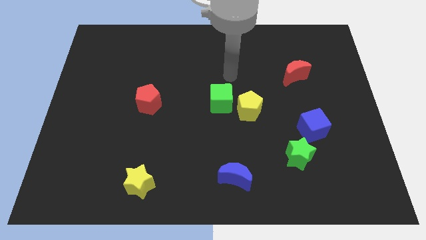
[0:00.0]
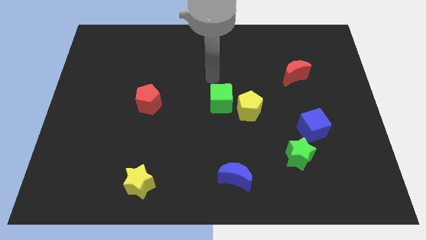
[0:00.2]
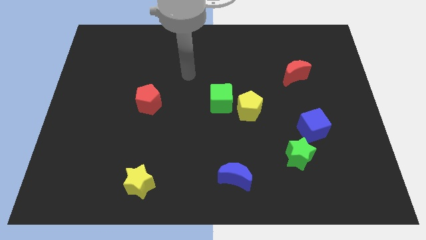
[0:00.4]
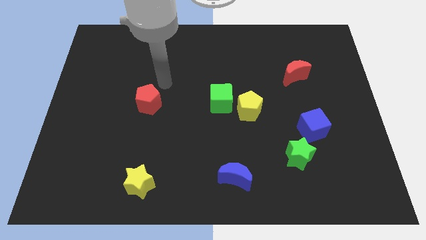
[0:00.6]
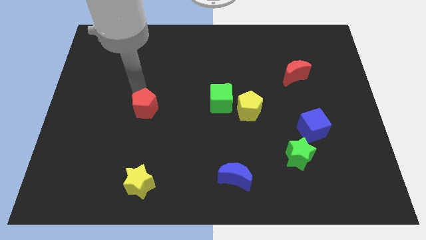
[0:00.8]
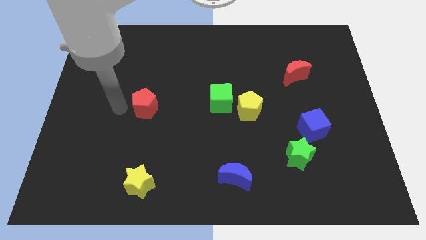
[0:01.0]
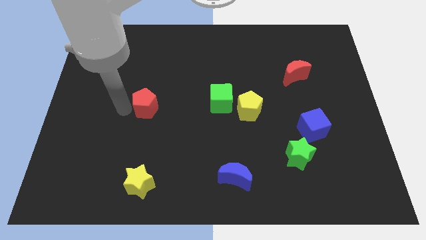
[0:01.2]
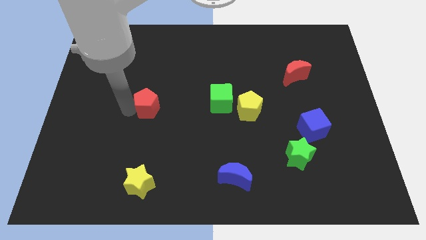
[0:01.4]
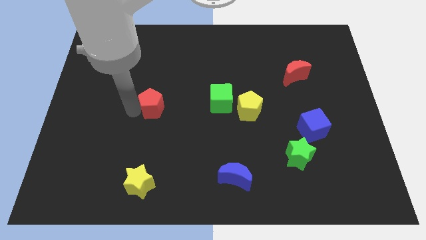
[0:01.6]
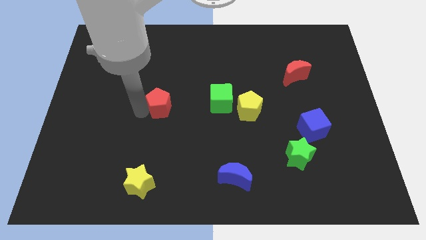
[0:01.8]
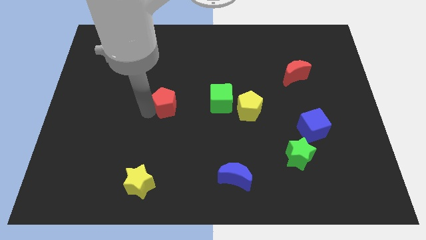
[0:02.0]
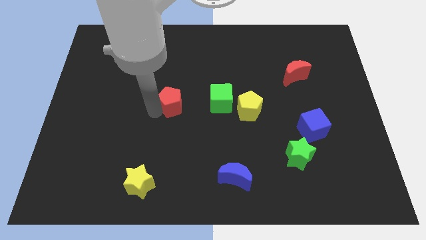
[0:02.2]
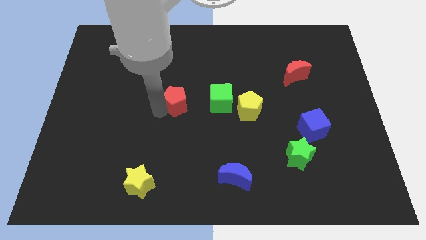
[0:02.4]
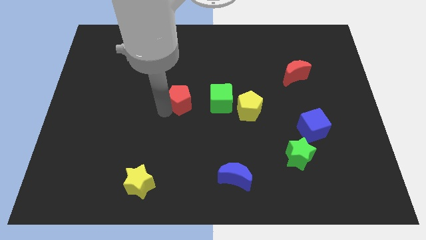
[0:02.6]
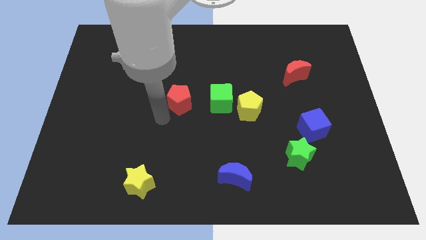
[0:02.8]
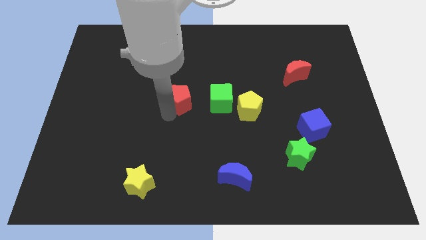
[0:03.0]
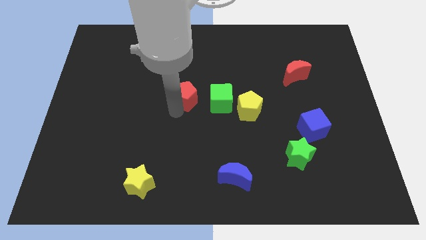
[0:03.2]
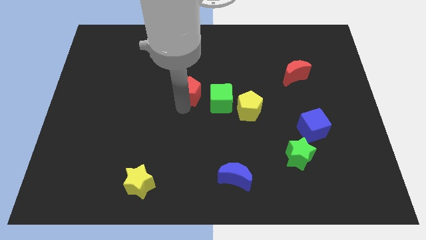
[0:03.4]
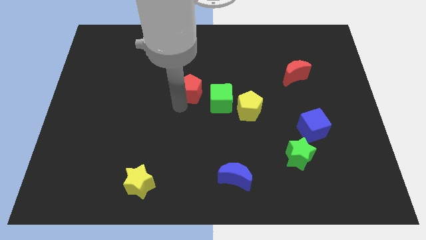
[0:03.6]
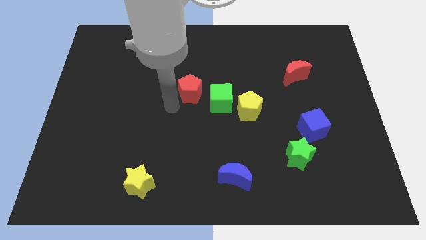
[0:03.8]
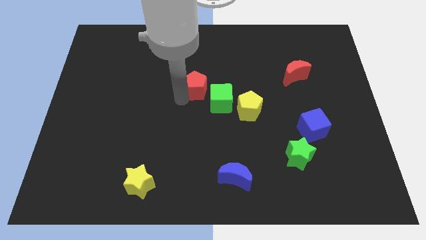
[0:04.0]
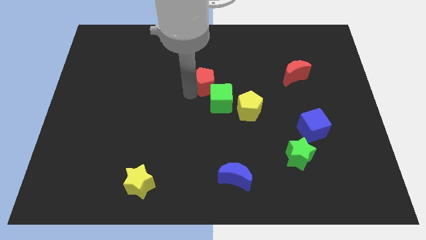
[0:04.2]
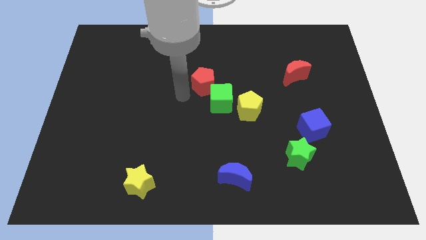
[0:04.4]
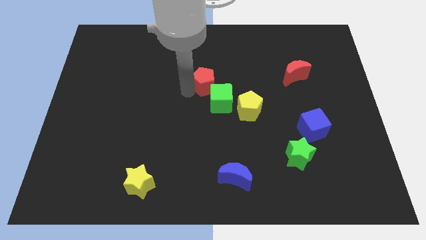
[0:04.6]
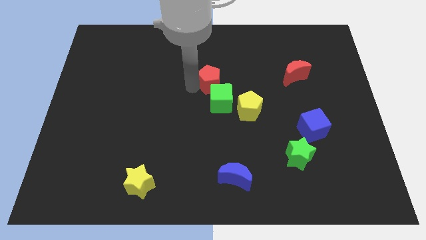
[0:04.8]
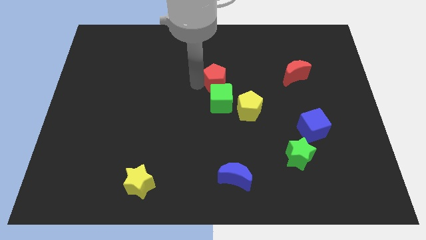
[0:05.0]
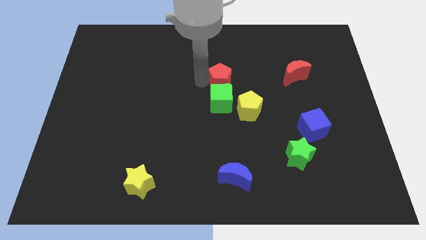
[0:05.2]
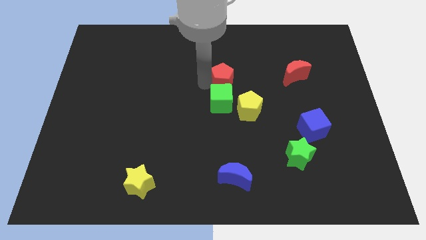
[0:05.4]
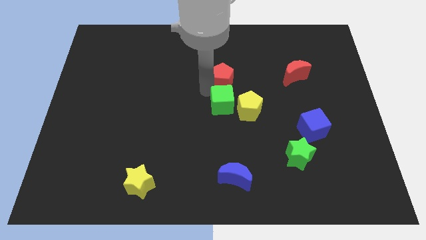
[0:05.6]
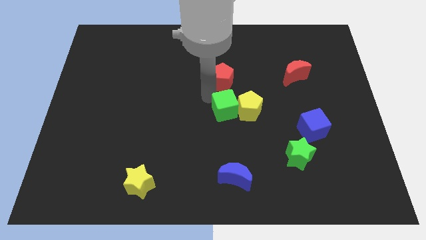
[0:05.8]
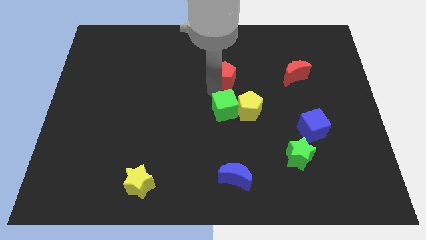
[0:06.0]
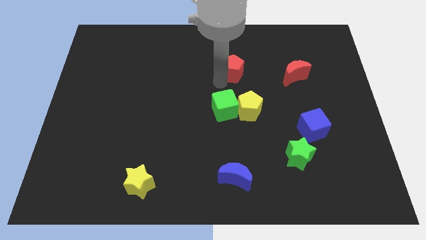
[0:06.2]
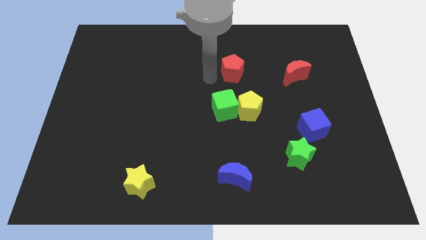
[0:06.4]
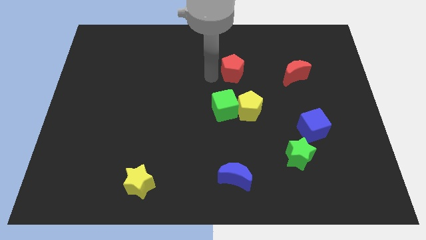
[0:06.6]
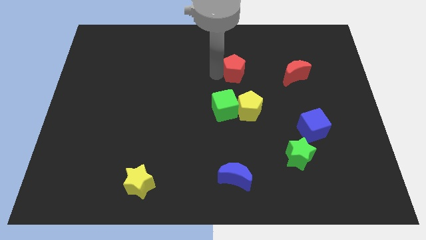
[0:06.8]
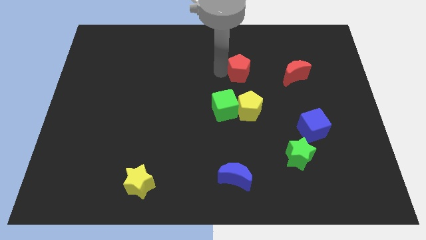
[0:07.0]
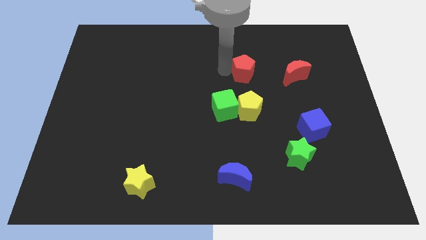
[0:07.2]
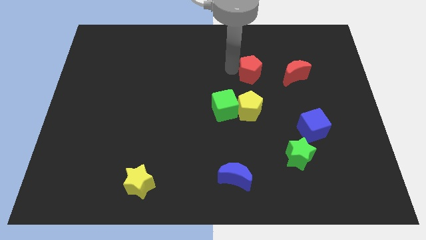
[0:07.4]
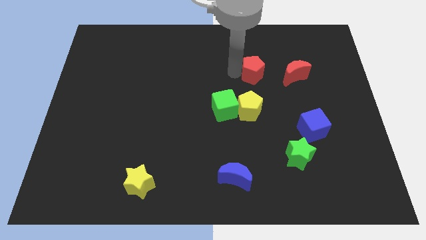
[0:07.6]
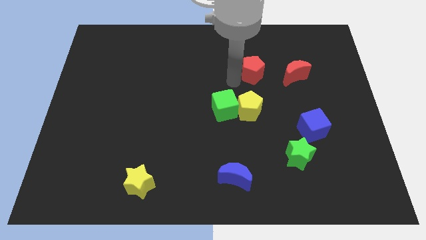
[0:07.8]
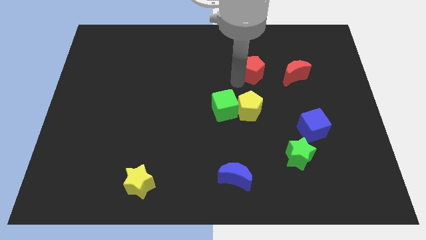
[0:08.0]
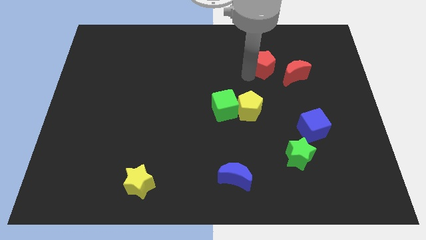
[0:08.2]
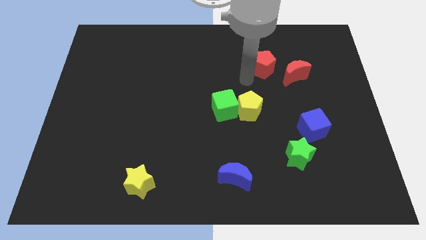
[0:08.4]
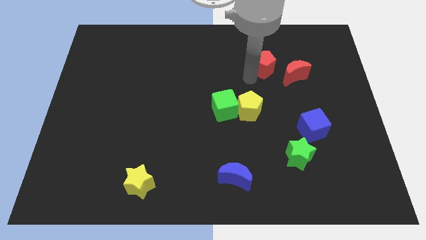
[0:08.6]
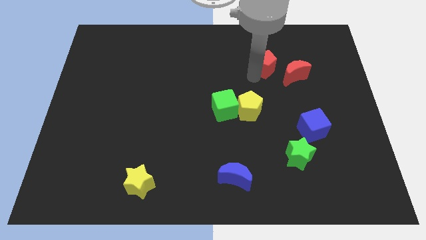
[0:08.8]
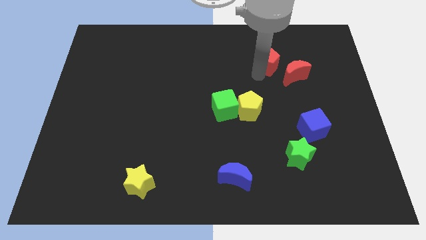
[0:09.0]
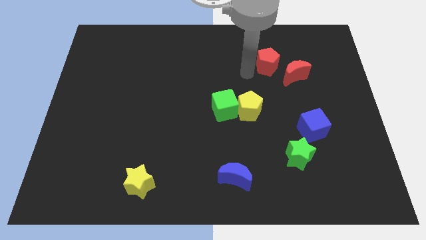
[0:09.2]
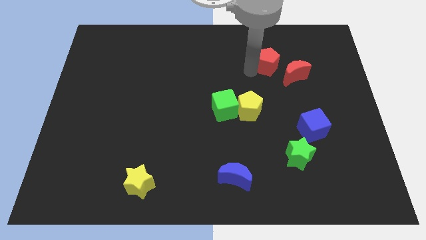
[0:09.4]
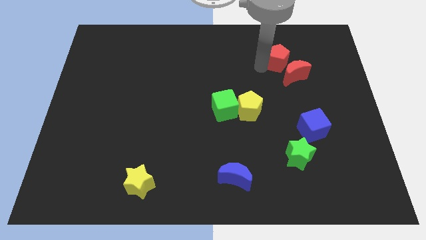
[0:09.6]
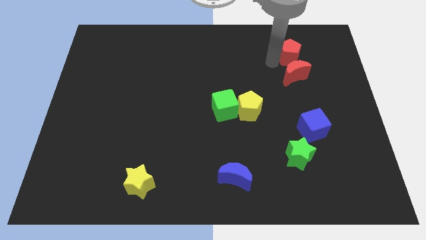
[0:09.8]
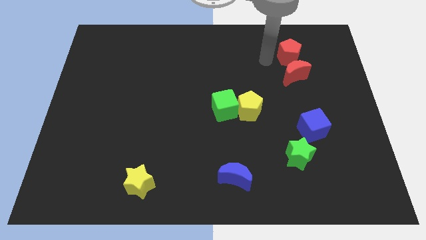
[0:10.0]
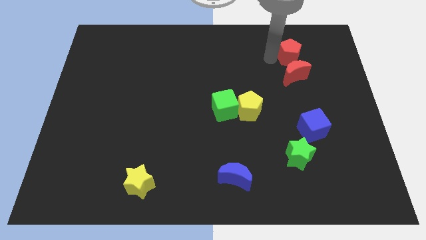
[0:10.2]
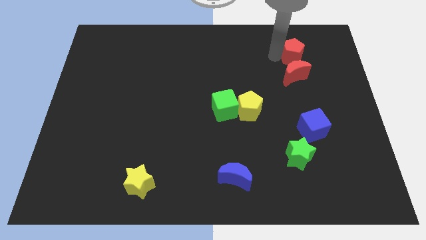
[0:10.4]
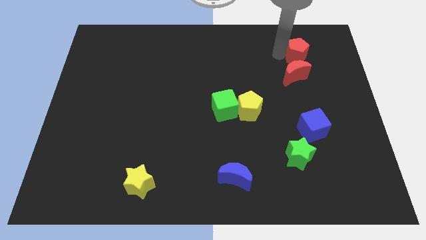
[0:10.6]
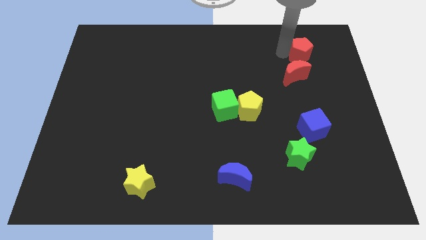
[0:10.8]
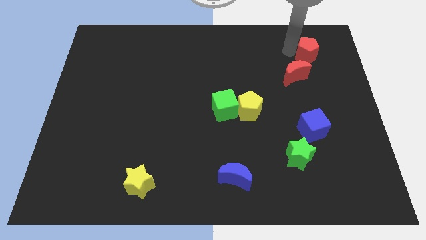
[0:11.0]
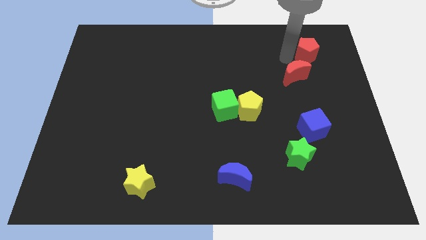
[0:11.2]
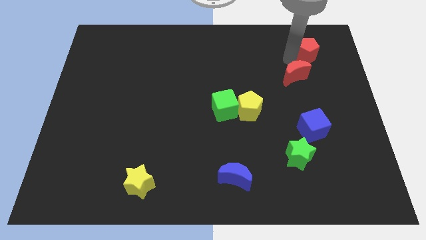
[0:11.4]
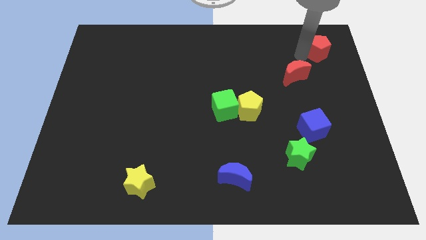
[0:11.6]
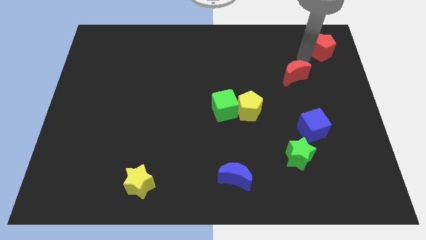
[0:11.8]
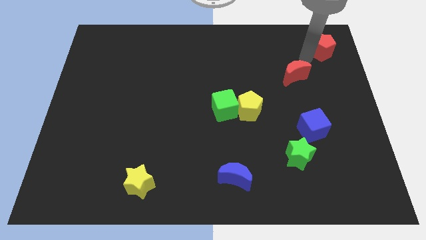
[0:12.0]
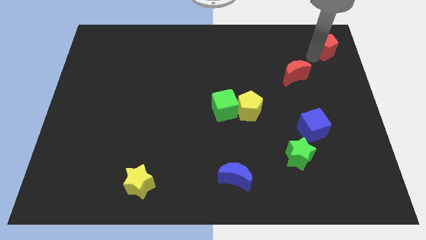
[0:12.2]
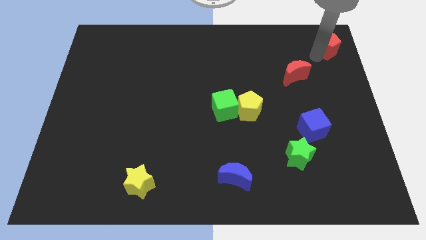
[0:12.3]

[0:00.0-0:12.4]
move the red pentagon to the upper right corner
